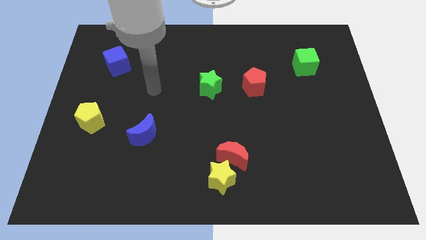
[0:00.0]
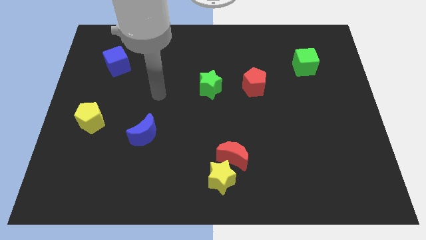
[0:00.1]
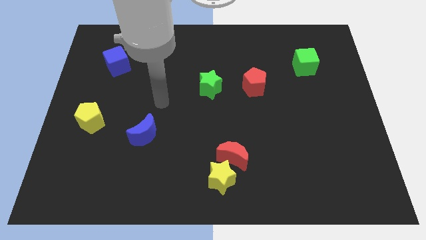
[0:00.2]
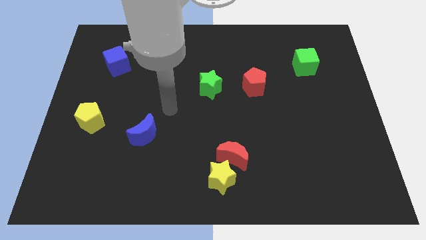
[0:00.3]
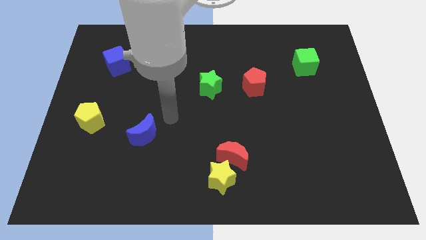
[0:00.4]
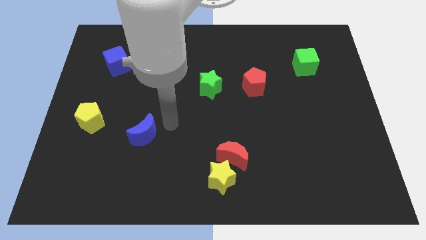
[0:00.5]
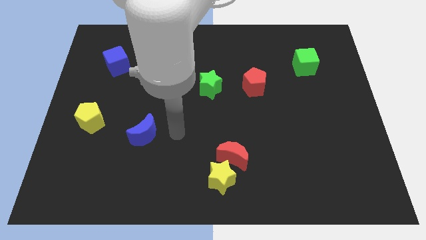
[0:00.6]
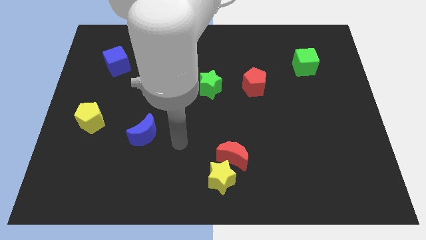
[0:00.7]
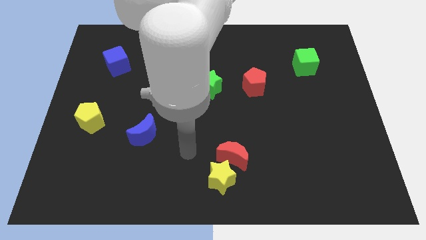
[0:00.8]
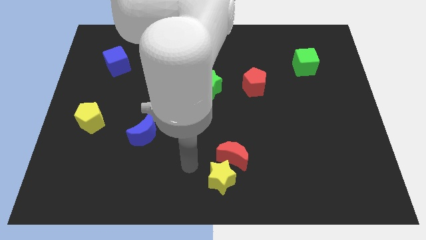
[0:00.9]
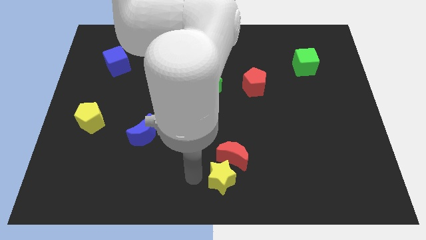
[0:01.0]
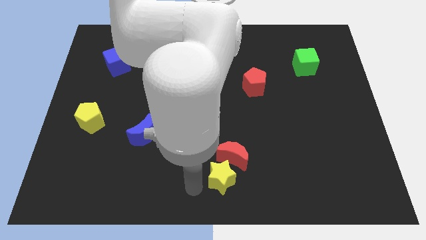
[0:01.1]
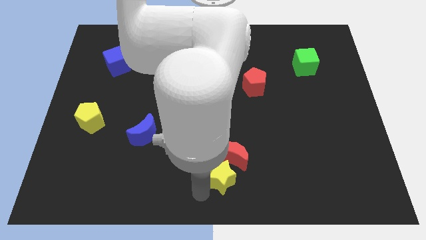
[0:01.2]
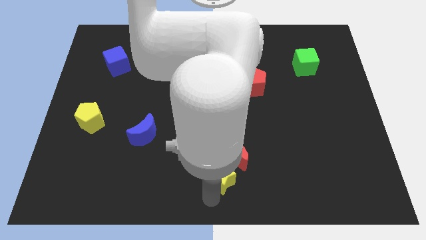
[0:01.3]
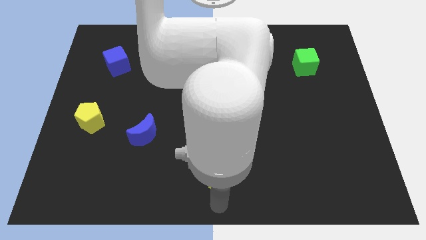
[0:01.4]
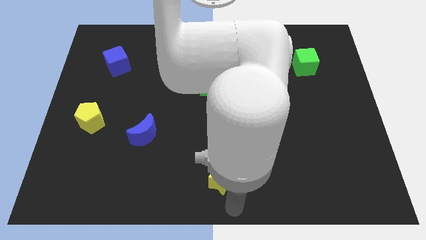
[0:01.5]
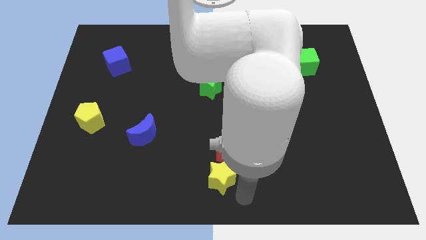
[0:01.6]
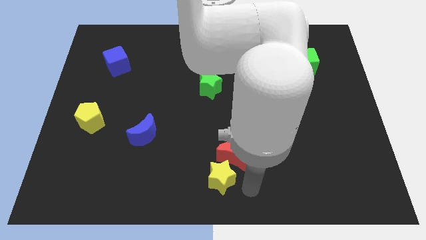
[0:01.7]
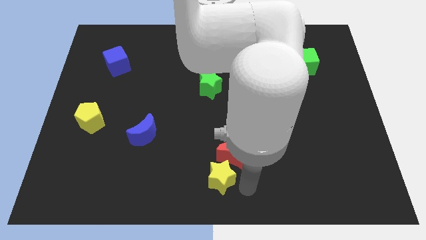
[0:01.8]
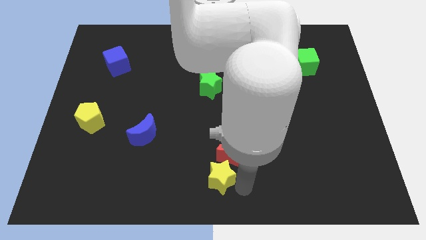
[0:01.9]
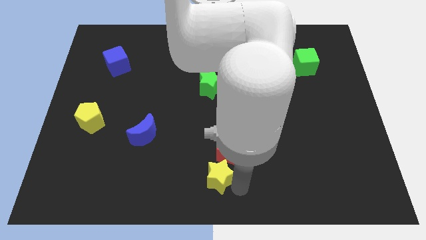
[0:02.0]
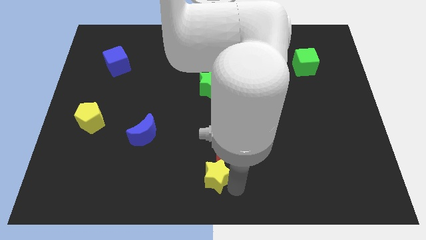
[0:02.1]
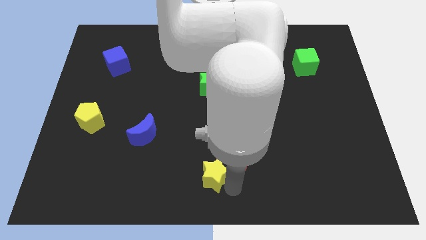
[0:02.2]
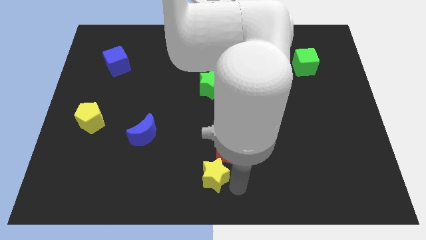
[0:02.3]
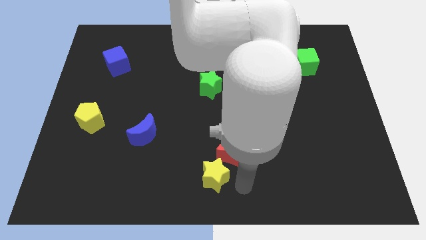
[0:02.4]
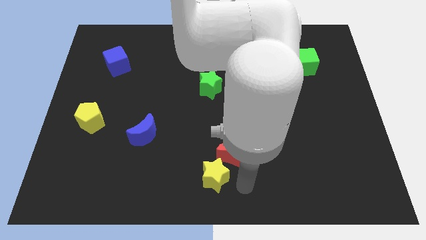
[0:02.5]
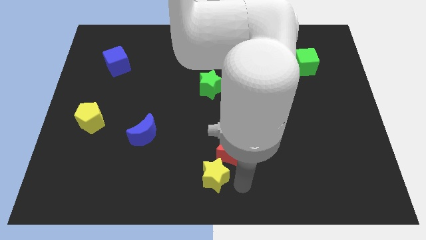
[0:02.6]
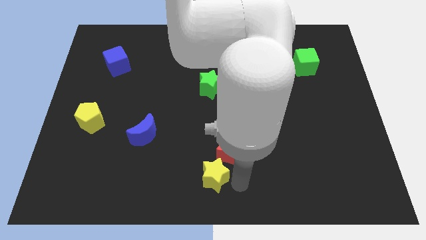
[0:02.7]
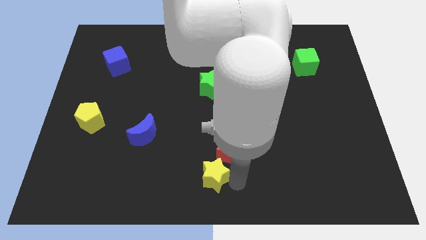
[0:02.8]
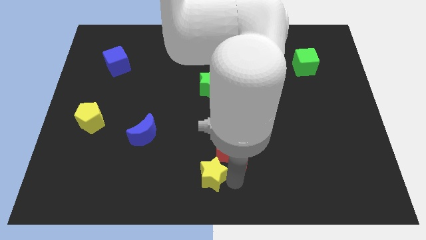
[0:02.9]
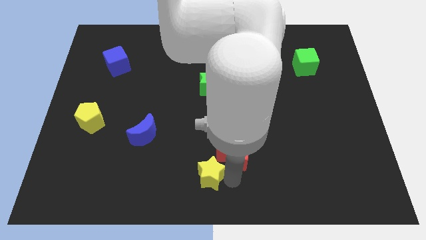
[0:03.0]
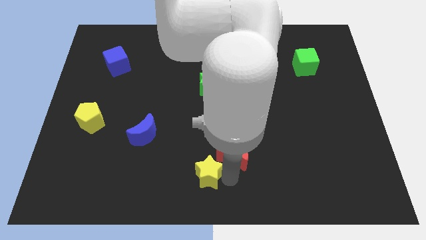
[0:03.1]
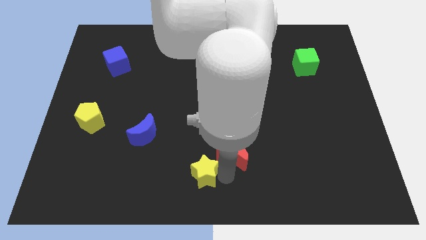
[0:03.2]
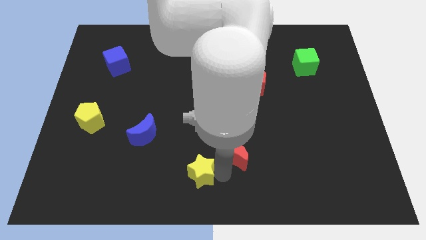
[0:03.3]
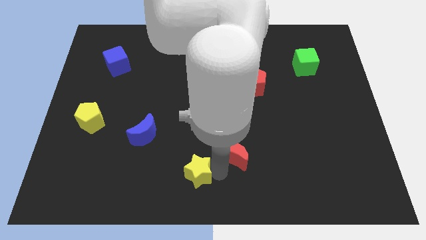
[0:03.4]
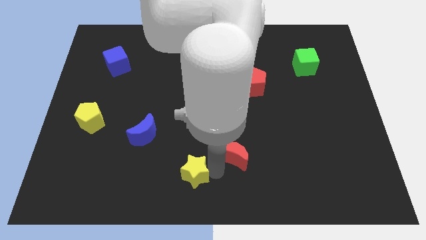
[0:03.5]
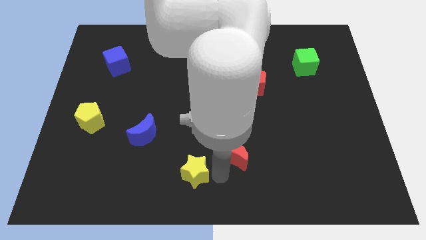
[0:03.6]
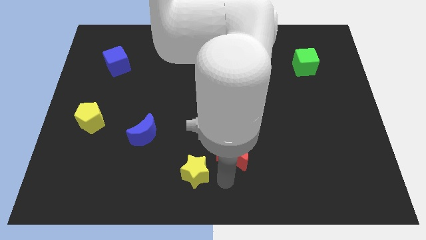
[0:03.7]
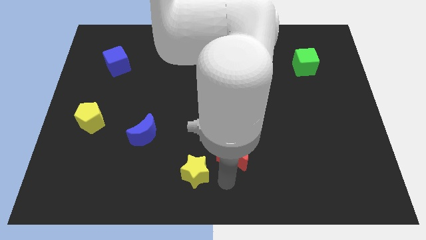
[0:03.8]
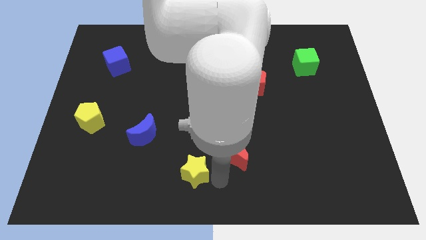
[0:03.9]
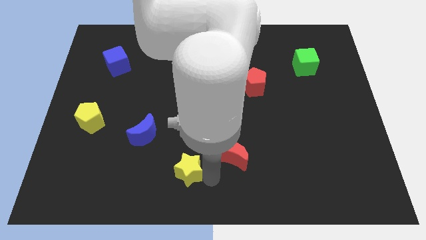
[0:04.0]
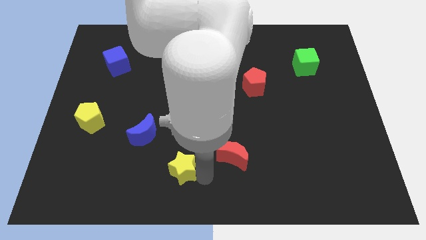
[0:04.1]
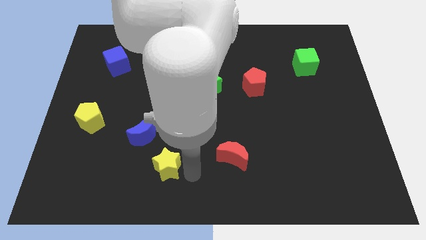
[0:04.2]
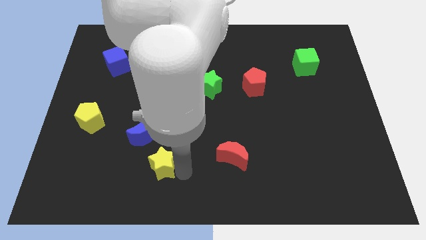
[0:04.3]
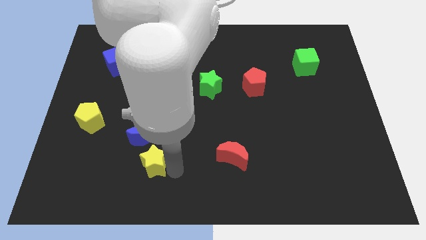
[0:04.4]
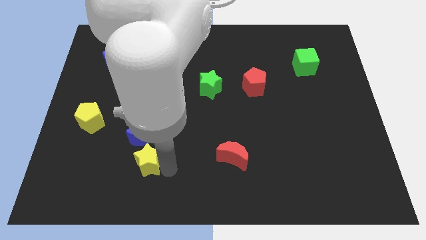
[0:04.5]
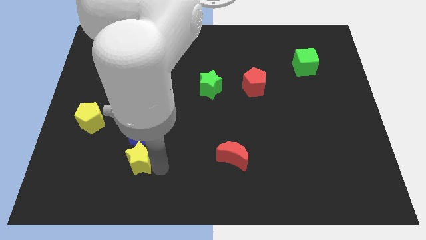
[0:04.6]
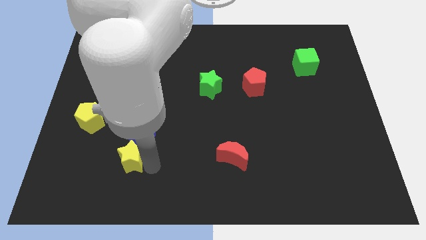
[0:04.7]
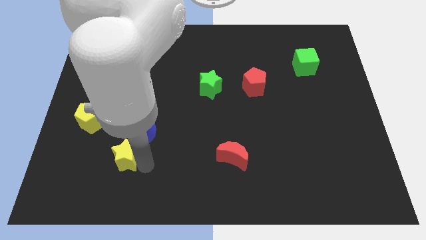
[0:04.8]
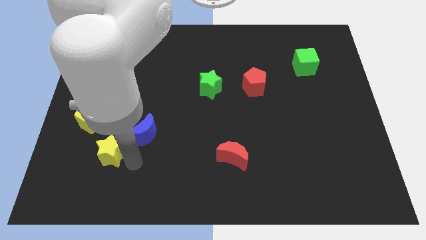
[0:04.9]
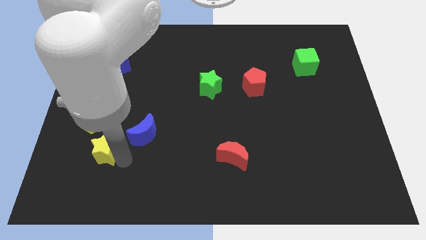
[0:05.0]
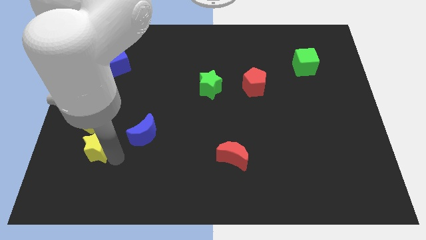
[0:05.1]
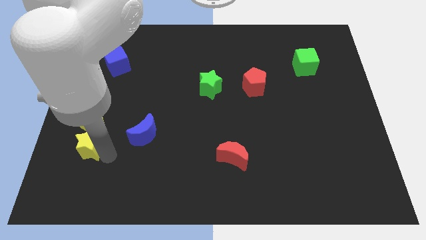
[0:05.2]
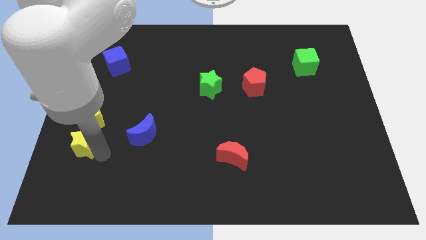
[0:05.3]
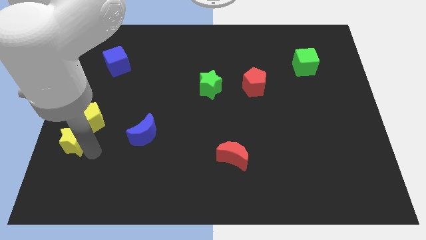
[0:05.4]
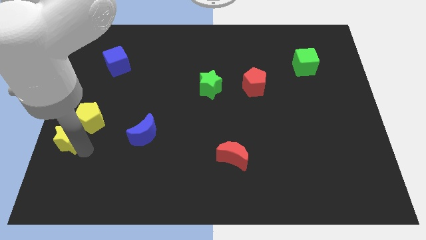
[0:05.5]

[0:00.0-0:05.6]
push the yellow star to the center left
